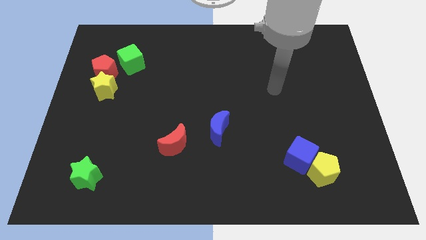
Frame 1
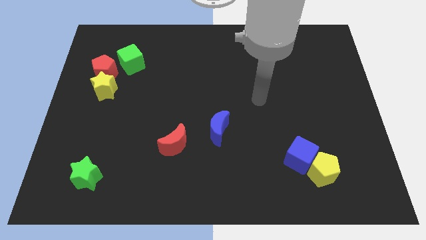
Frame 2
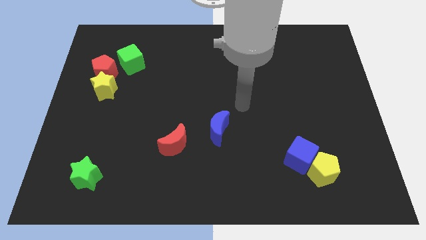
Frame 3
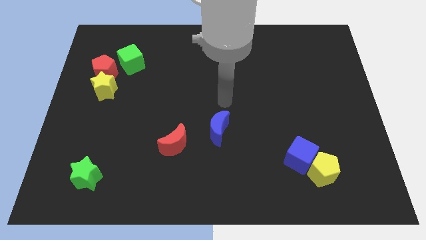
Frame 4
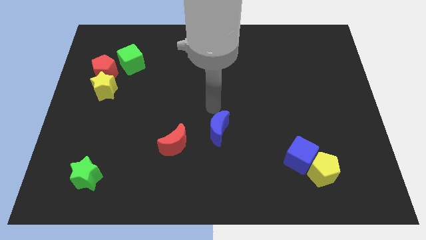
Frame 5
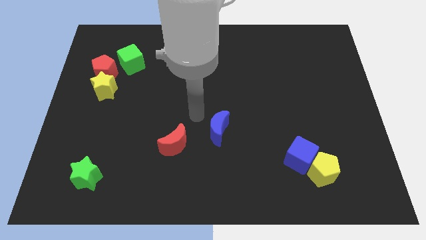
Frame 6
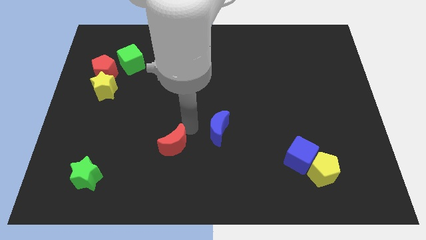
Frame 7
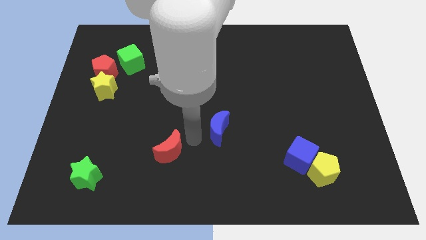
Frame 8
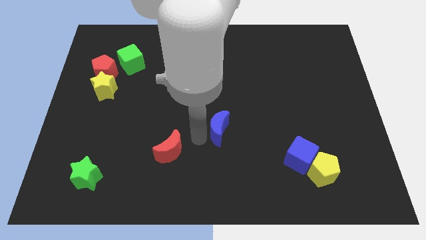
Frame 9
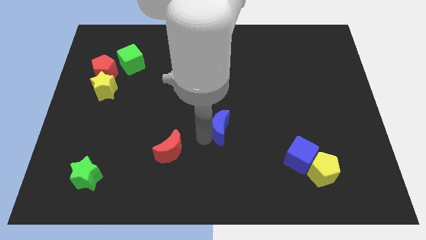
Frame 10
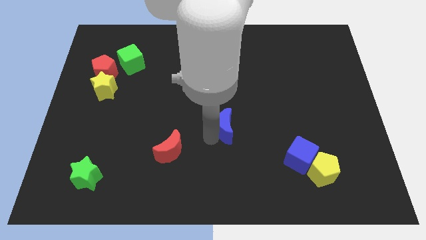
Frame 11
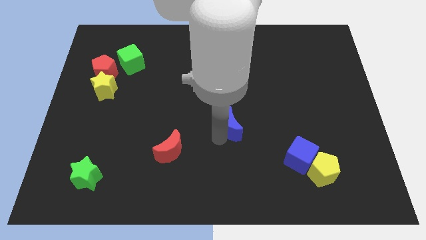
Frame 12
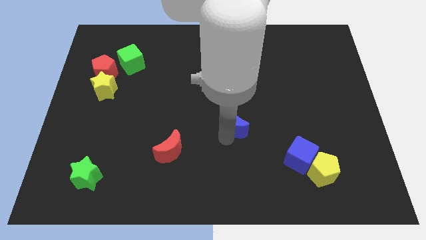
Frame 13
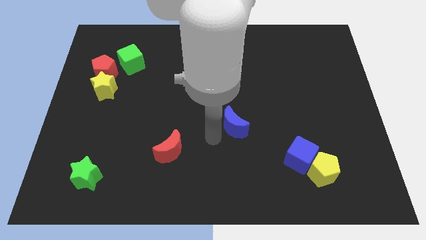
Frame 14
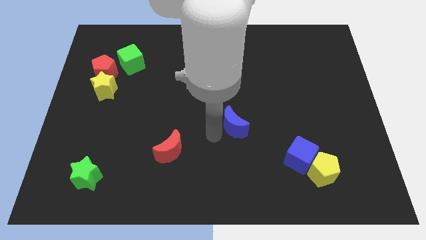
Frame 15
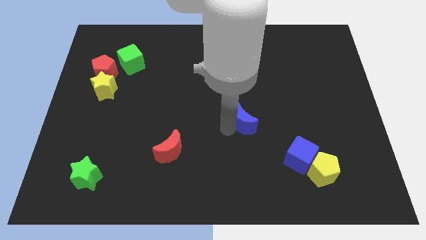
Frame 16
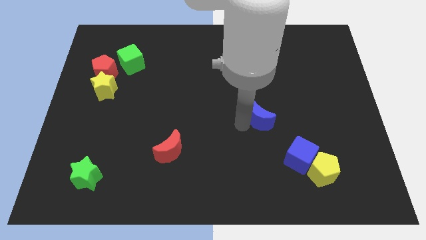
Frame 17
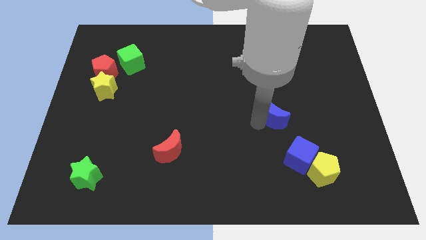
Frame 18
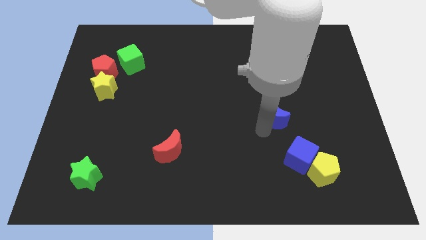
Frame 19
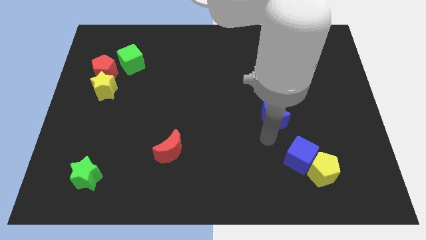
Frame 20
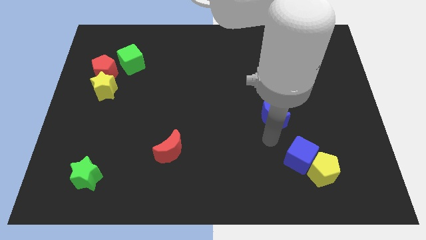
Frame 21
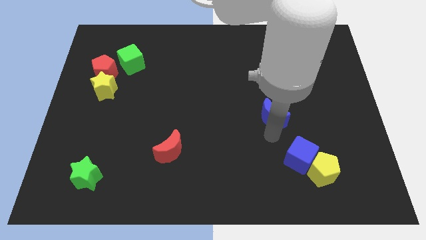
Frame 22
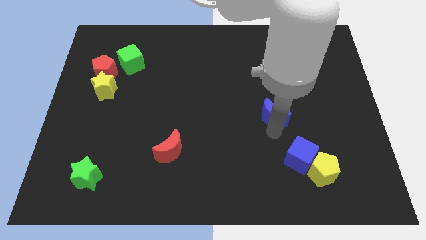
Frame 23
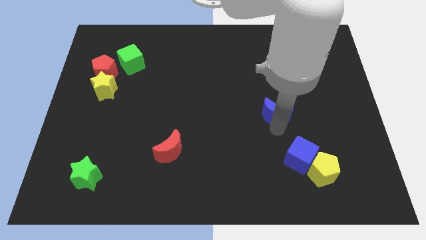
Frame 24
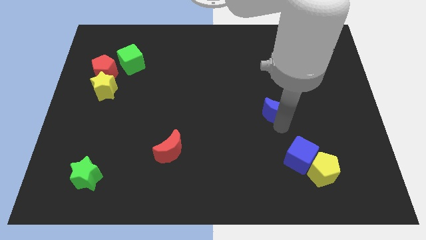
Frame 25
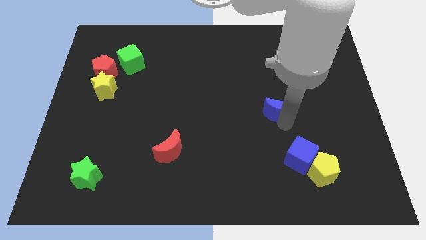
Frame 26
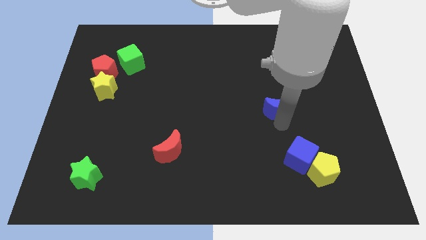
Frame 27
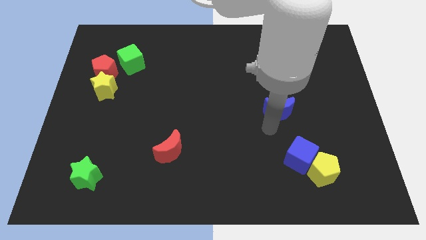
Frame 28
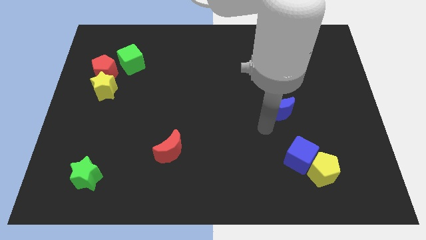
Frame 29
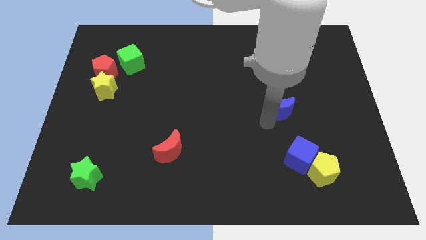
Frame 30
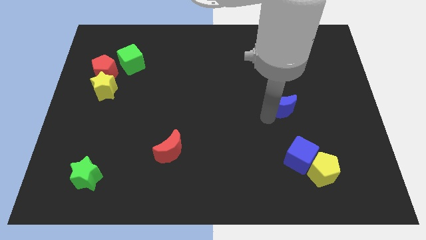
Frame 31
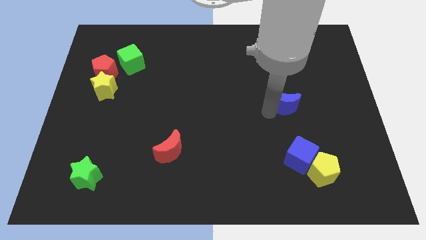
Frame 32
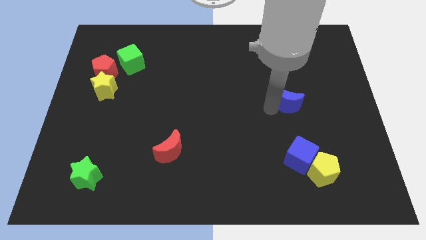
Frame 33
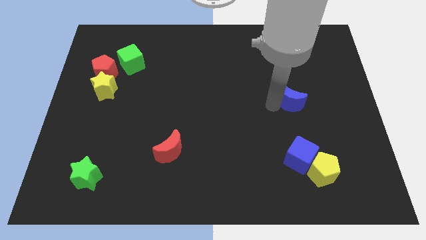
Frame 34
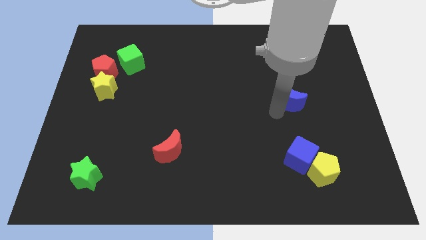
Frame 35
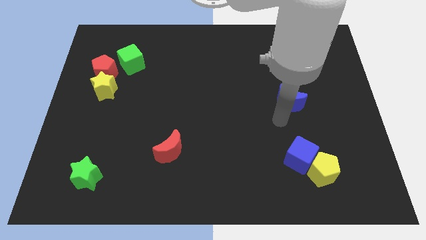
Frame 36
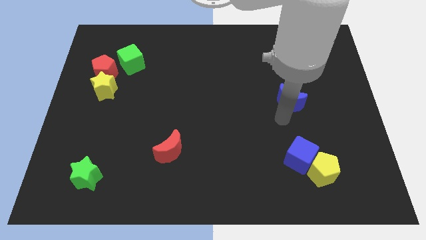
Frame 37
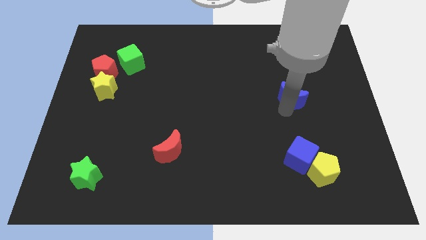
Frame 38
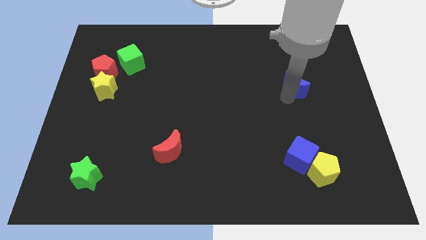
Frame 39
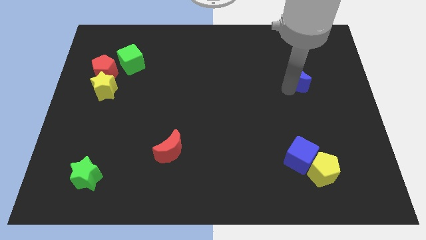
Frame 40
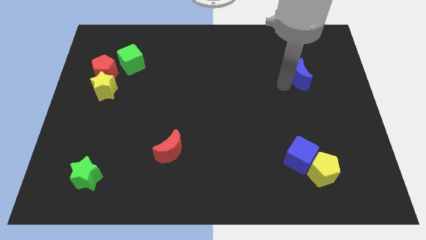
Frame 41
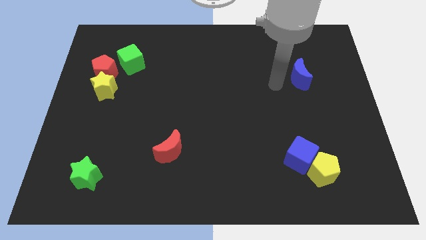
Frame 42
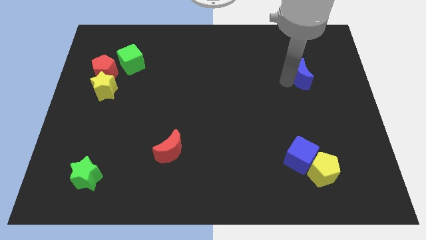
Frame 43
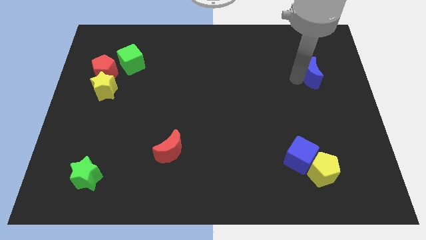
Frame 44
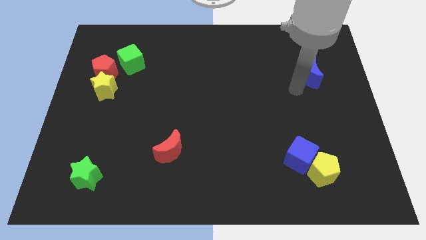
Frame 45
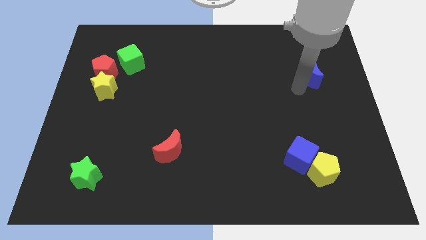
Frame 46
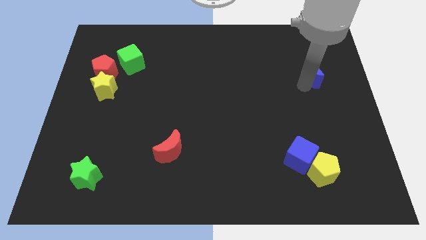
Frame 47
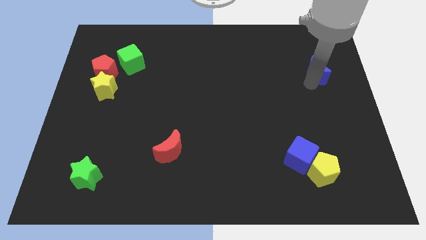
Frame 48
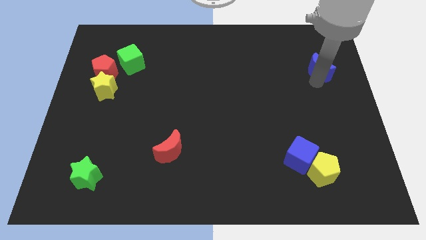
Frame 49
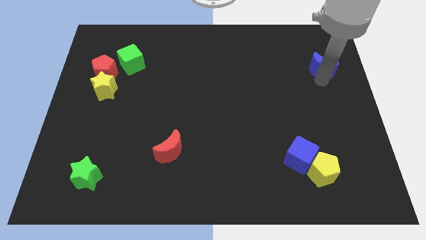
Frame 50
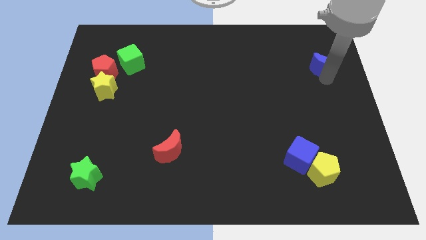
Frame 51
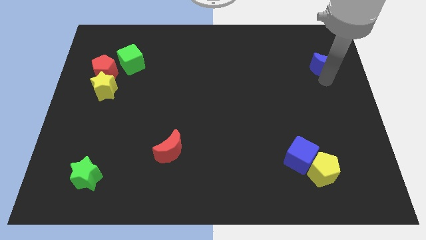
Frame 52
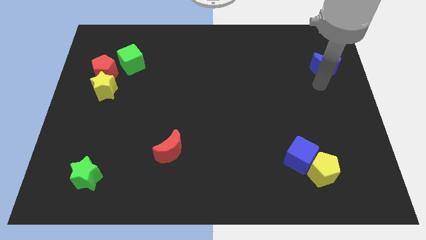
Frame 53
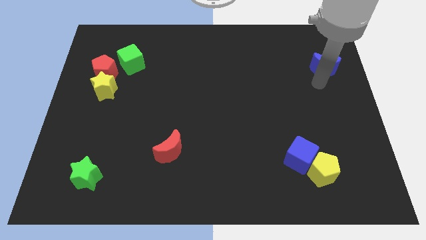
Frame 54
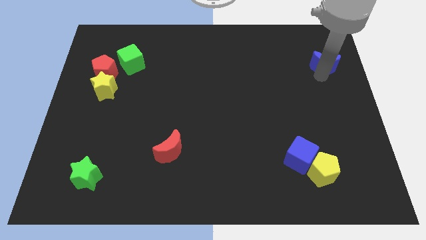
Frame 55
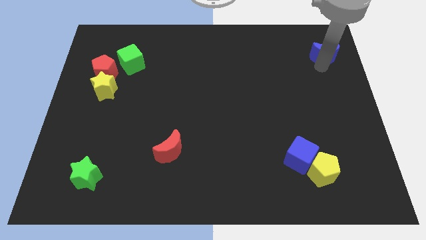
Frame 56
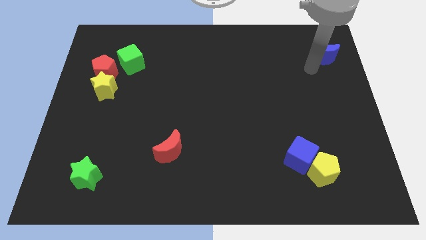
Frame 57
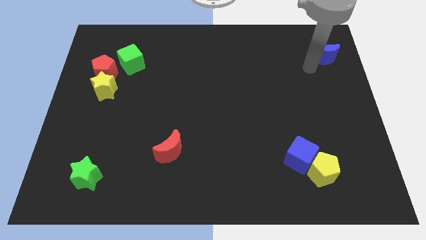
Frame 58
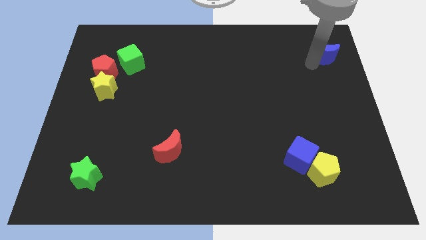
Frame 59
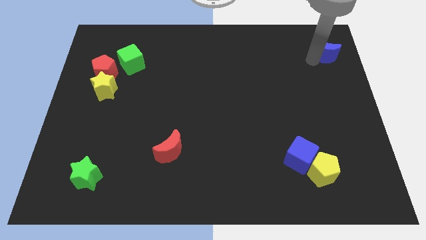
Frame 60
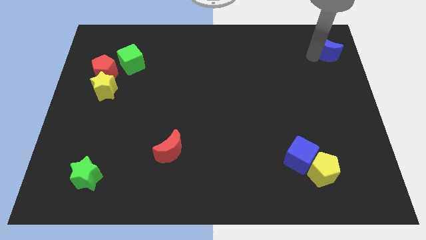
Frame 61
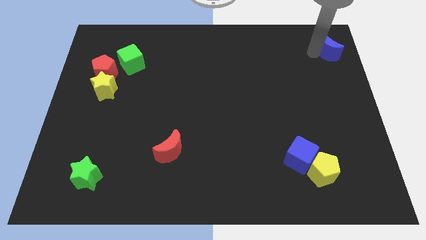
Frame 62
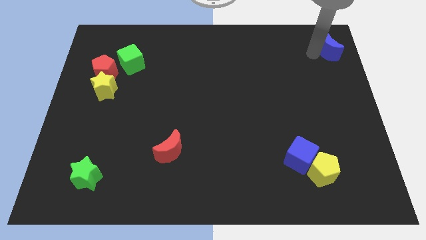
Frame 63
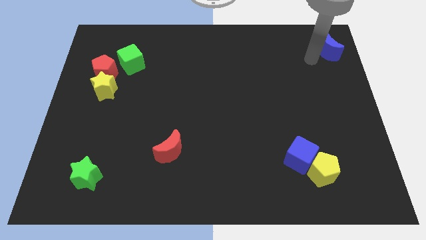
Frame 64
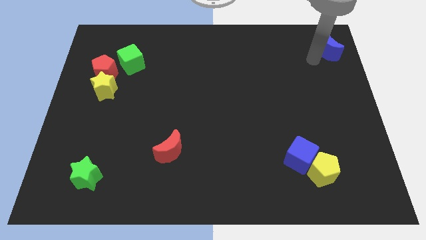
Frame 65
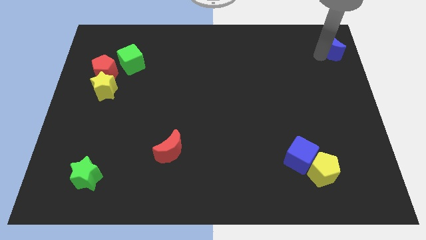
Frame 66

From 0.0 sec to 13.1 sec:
put the blue moon to the top right of the board
